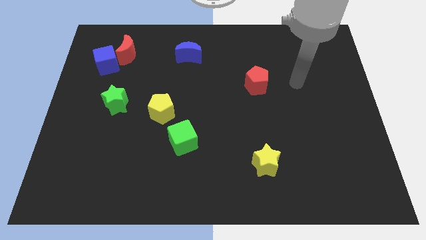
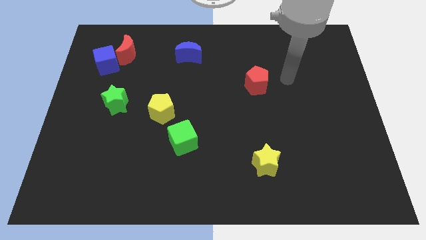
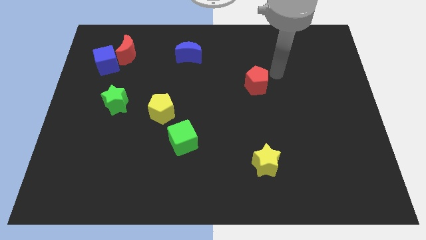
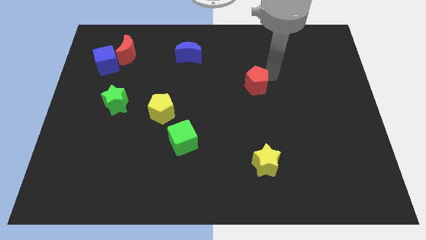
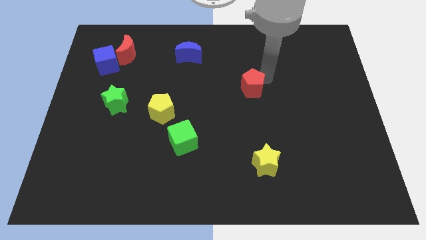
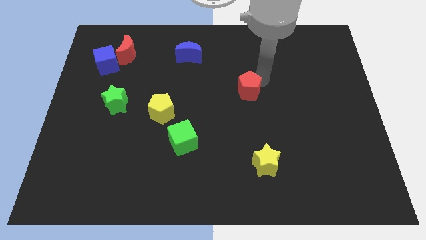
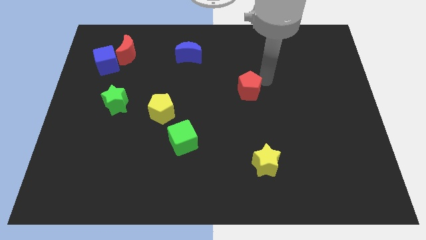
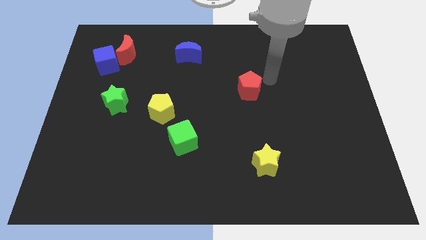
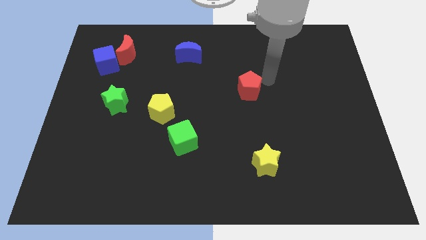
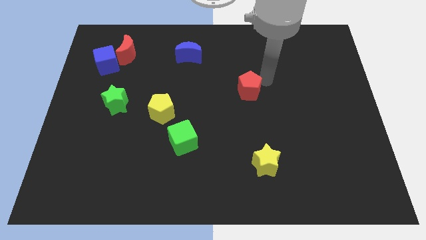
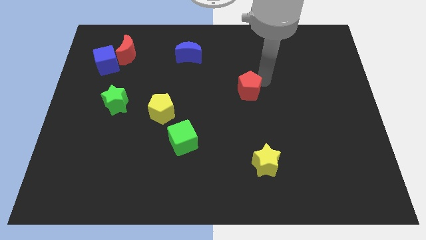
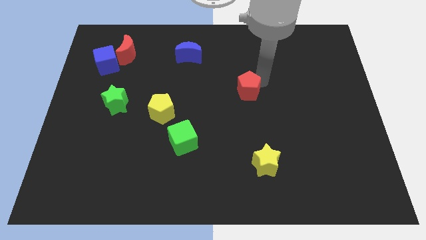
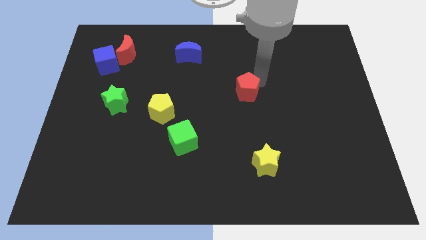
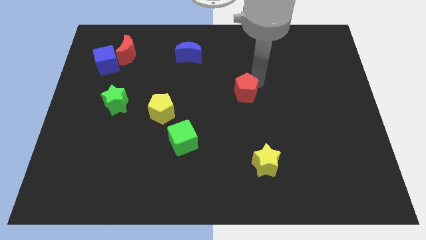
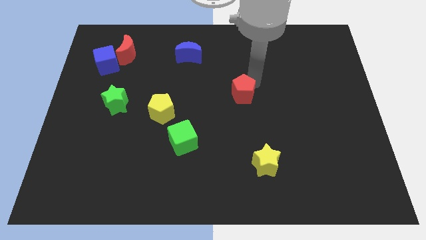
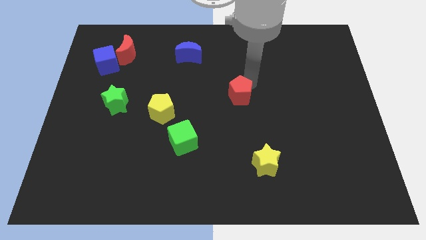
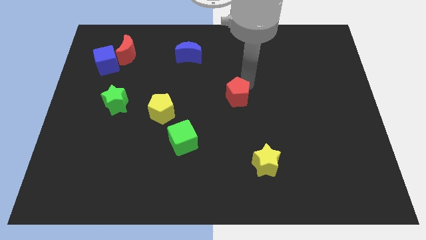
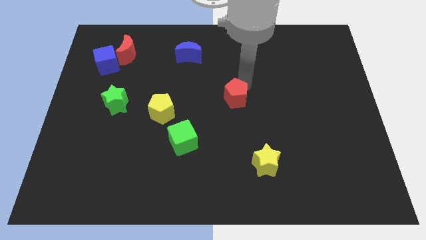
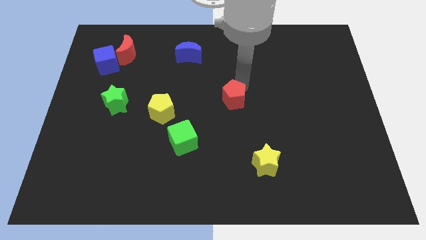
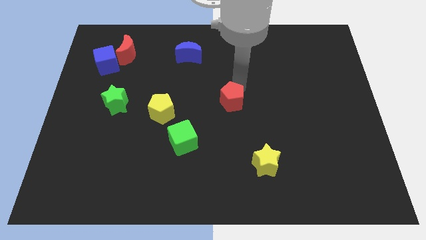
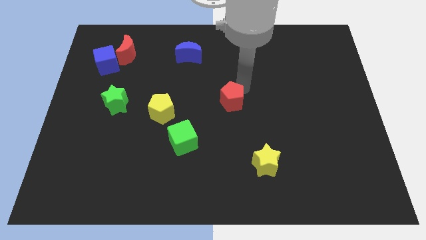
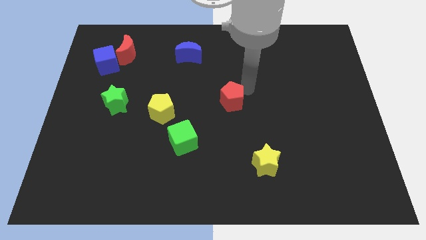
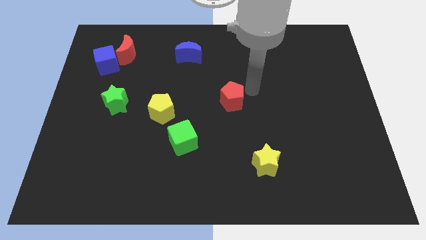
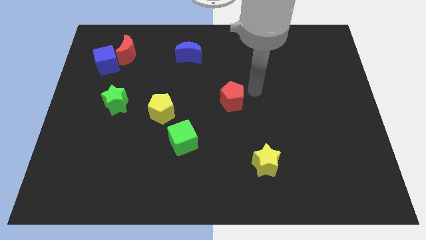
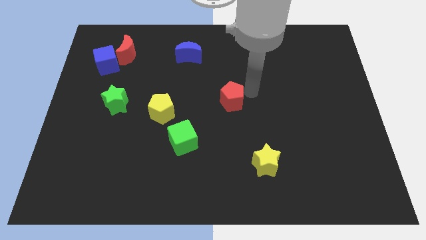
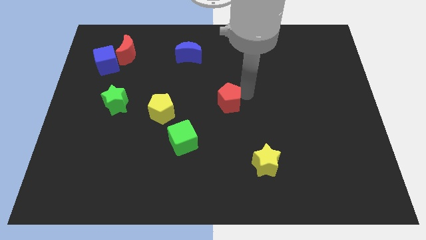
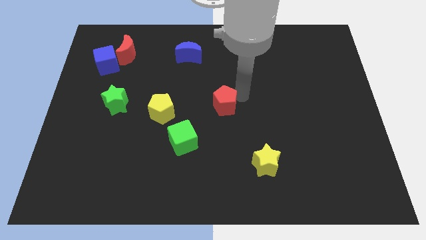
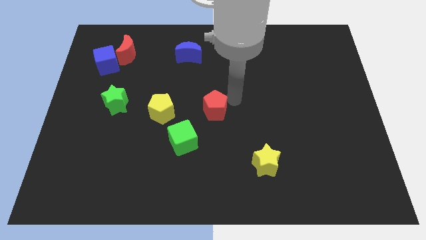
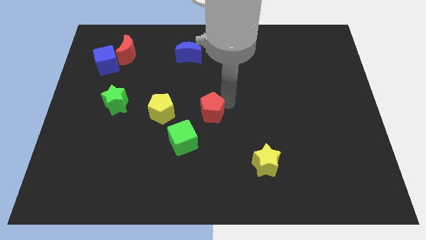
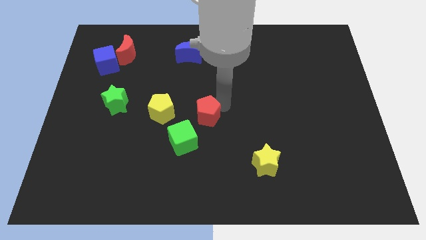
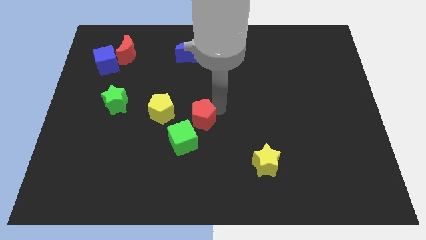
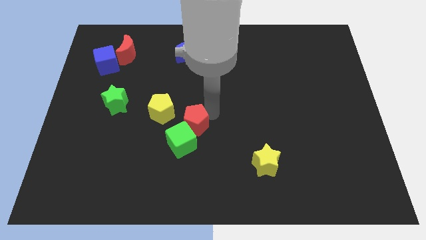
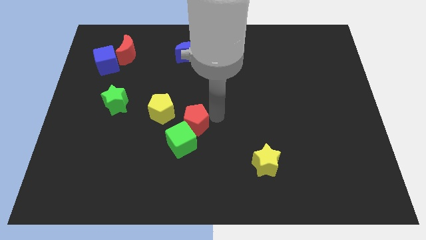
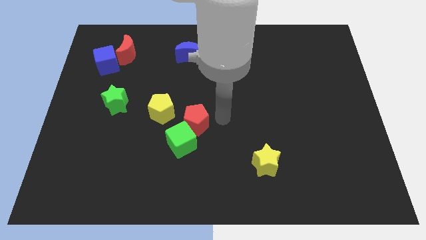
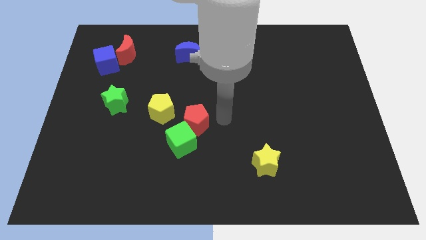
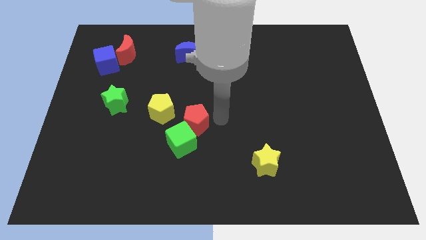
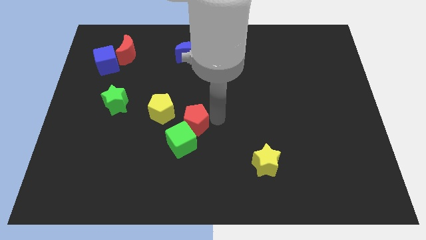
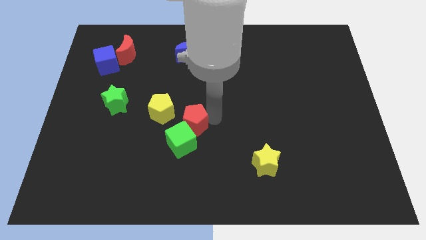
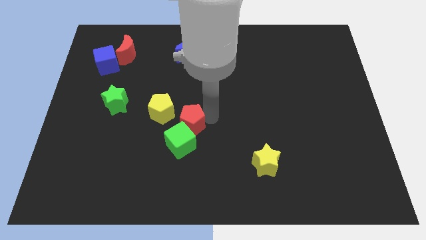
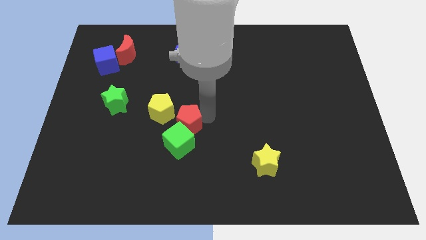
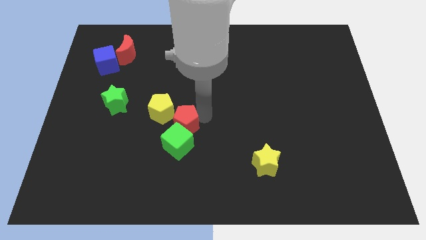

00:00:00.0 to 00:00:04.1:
move the red pentagon down and then left

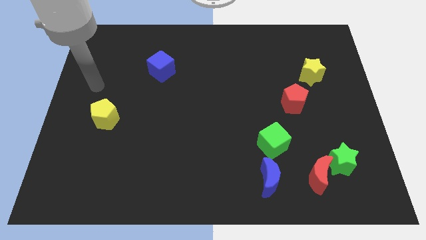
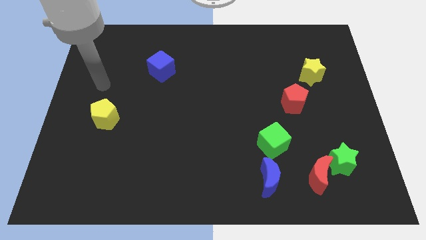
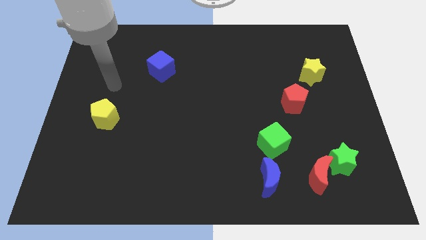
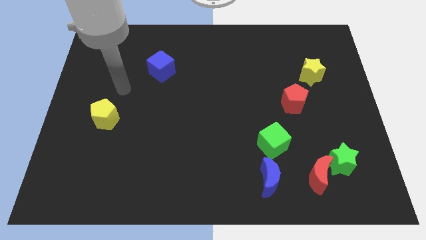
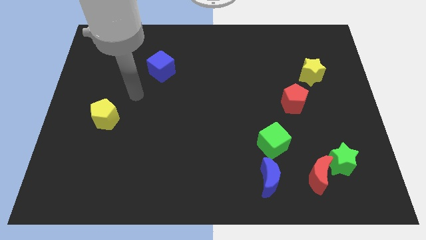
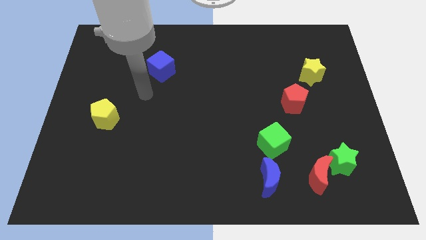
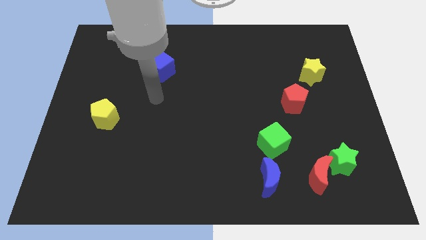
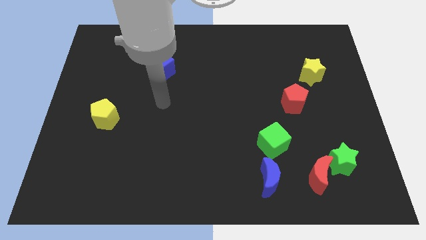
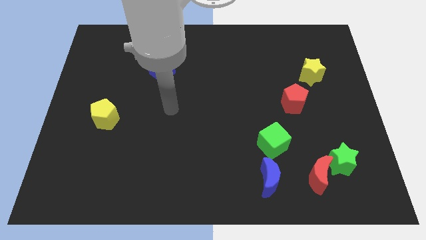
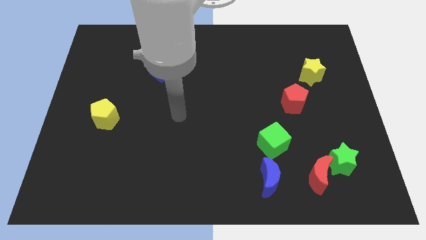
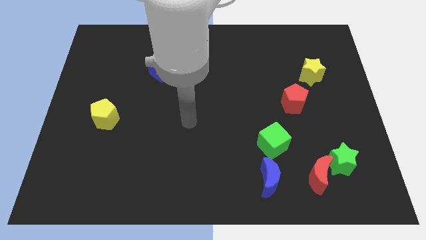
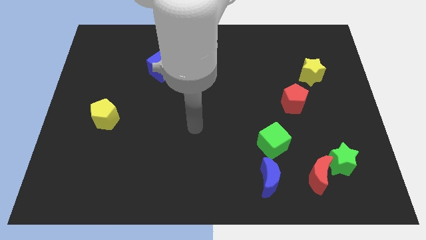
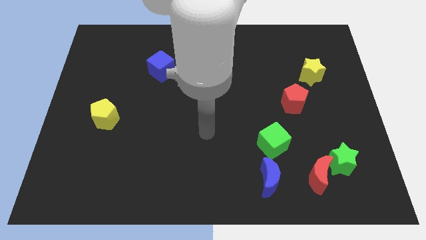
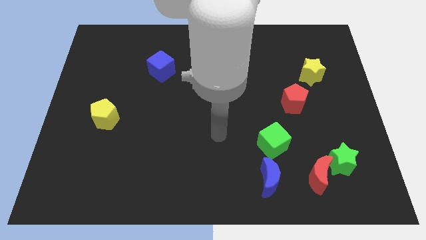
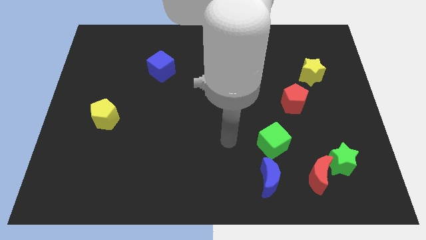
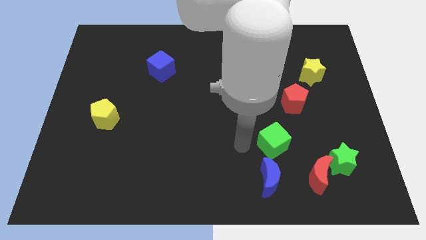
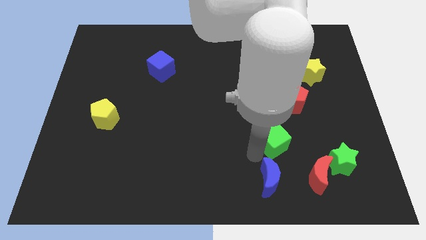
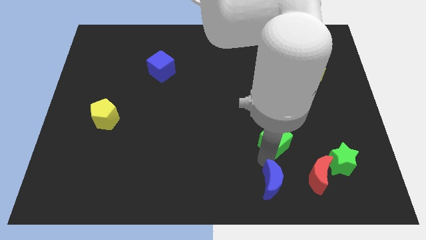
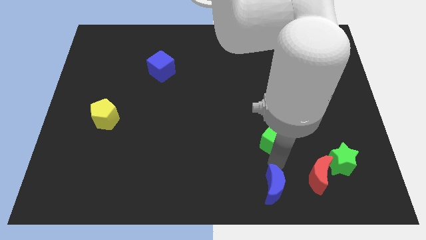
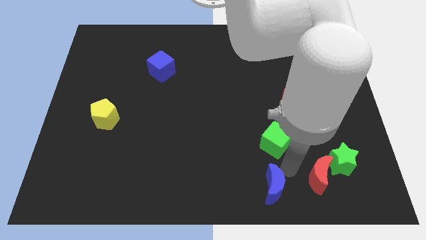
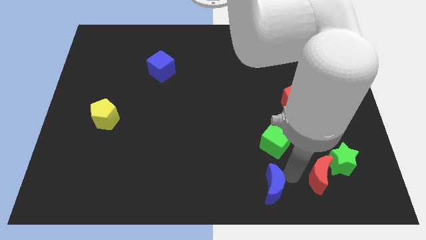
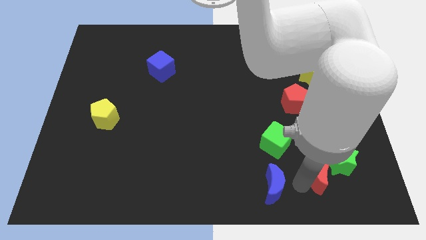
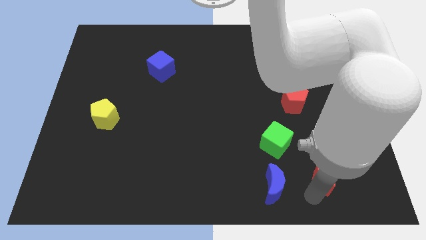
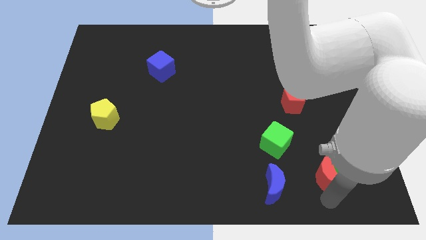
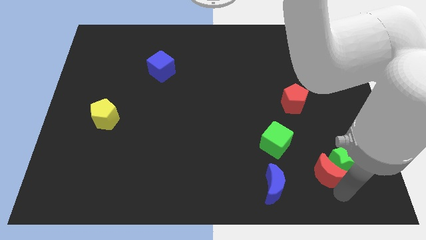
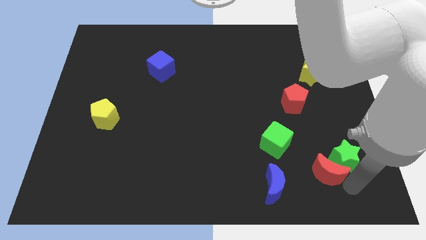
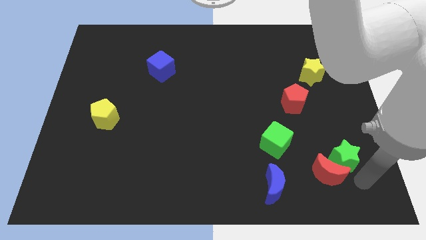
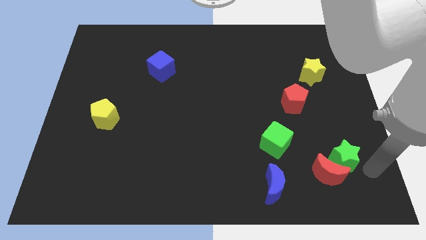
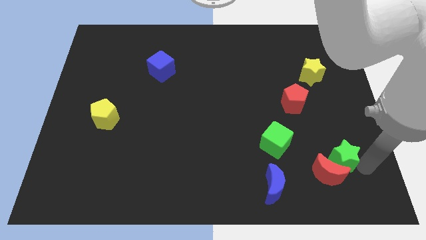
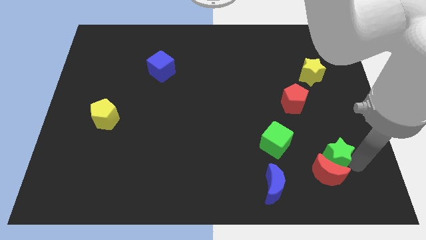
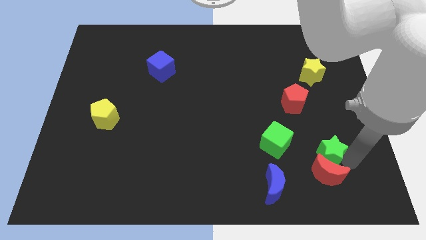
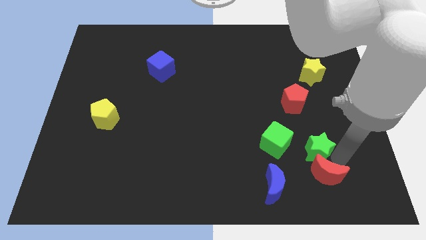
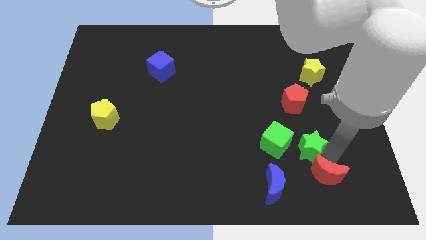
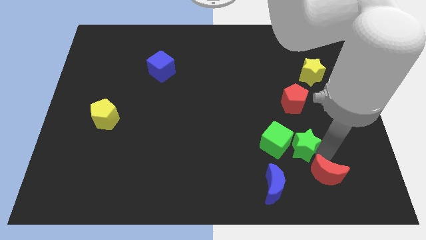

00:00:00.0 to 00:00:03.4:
move the green star somewhat up and then to the left

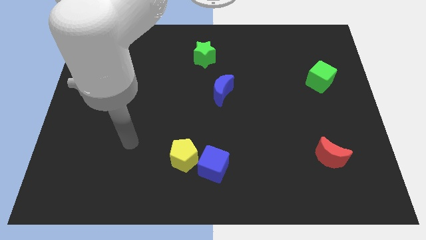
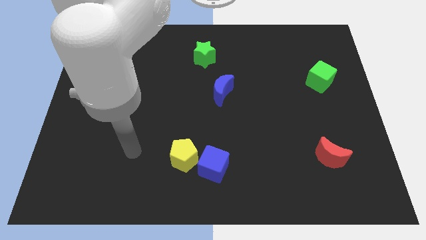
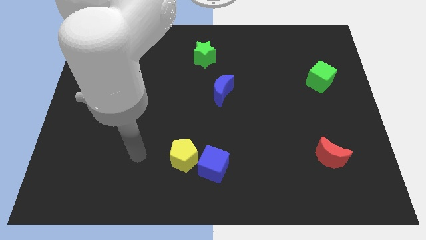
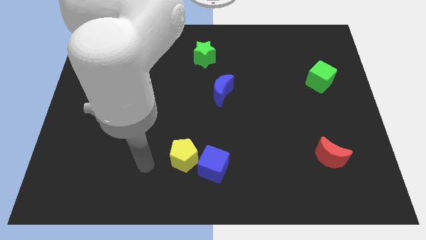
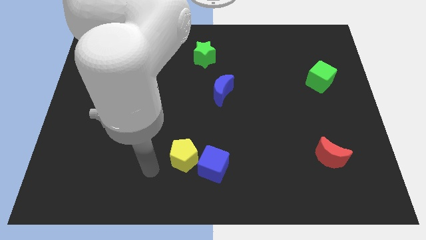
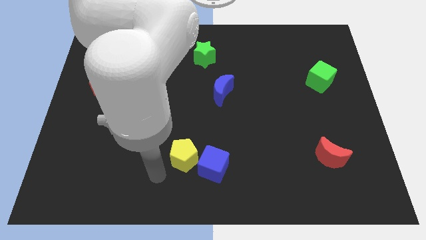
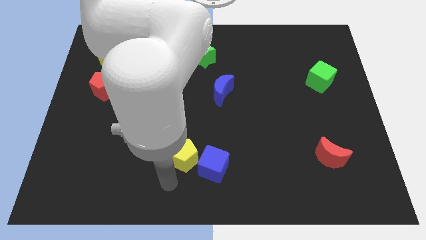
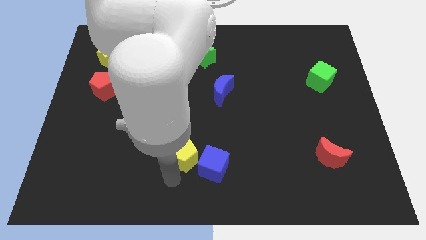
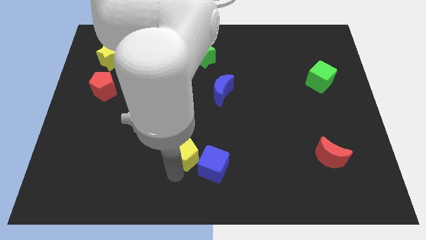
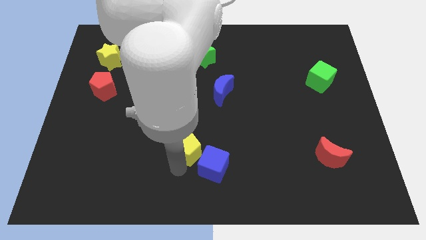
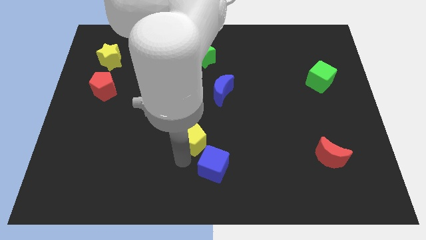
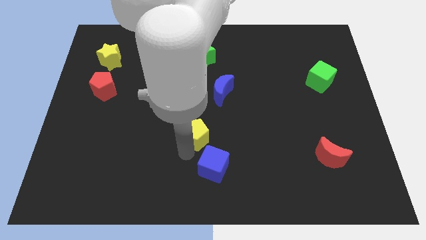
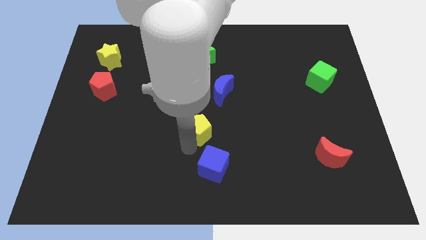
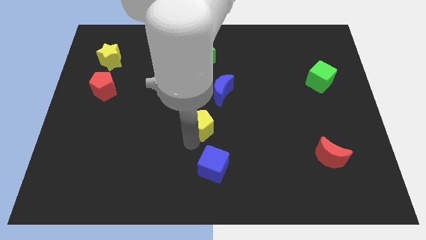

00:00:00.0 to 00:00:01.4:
slide the yellow pentagon up and right a little bit
